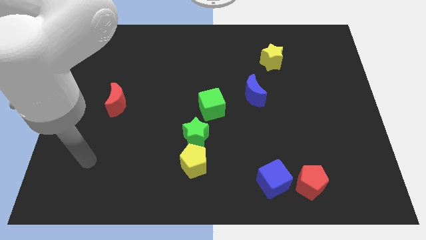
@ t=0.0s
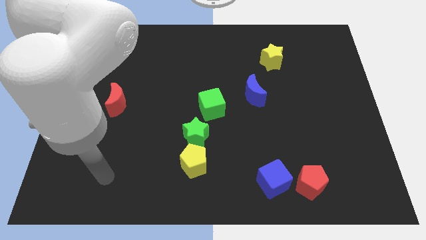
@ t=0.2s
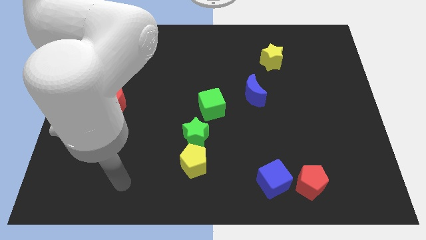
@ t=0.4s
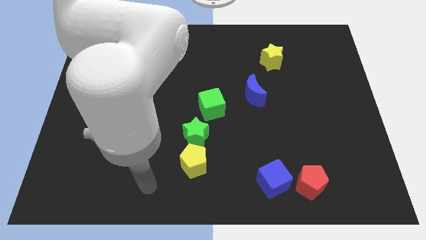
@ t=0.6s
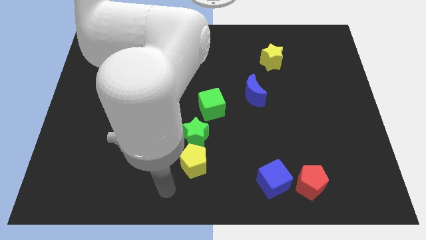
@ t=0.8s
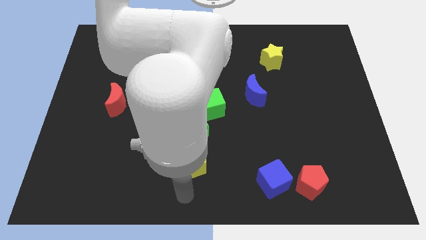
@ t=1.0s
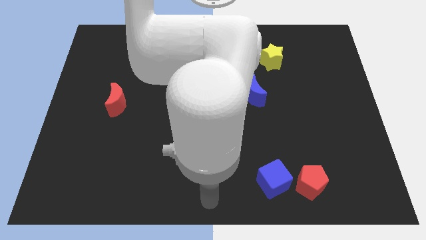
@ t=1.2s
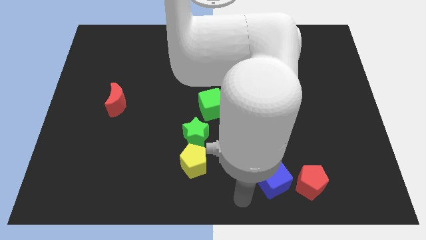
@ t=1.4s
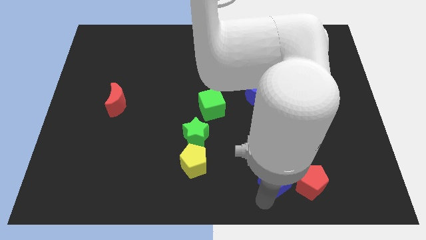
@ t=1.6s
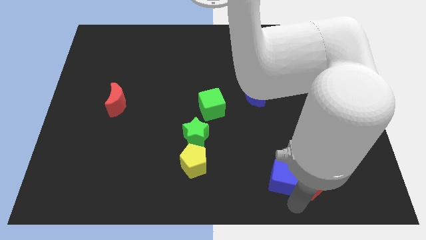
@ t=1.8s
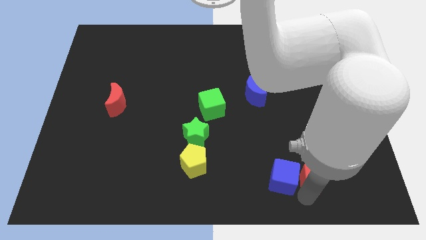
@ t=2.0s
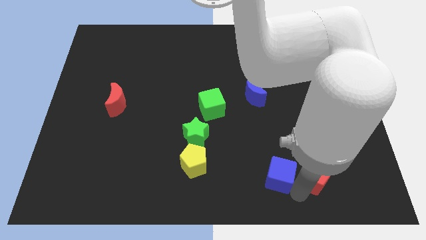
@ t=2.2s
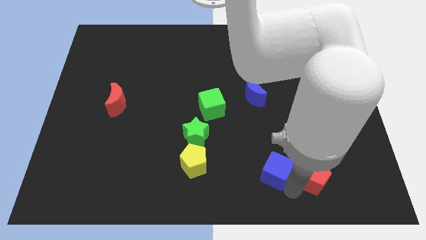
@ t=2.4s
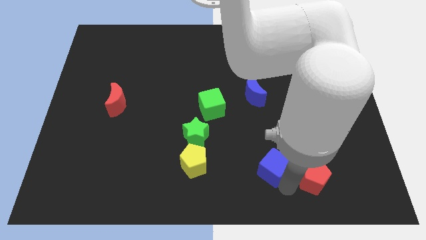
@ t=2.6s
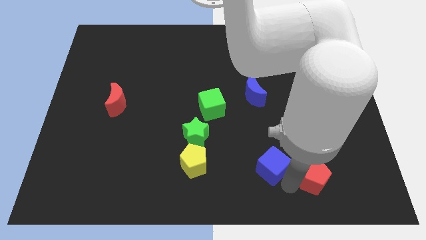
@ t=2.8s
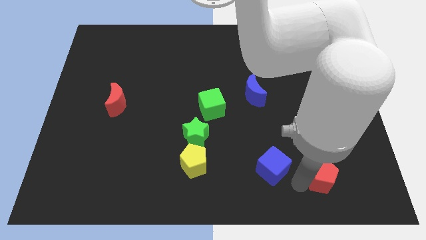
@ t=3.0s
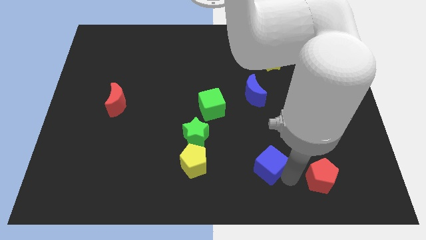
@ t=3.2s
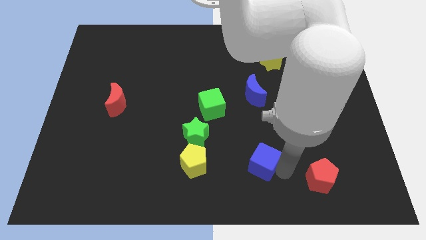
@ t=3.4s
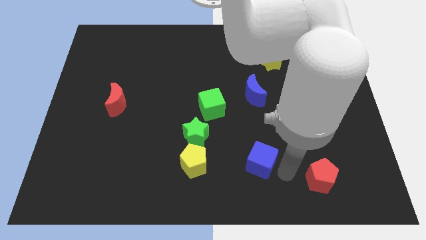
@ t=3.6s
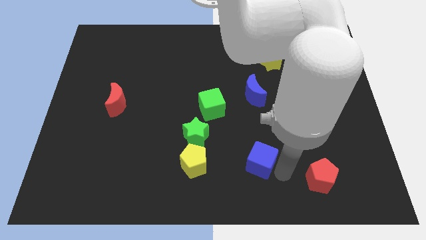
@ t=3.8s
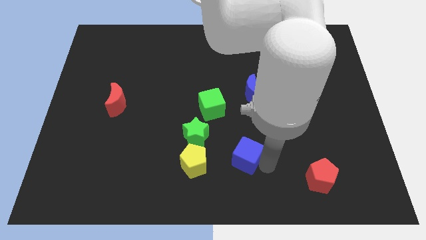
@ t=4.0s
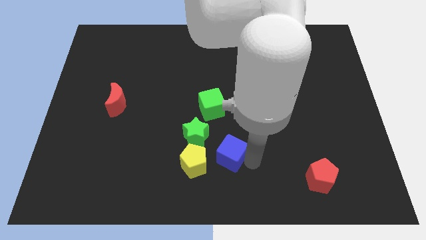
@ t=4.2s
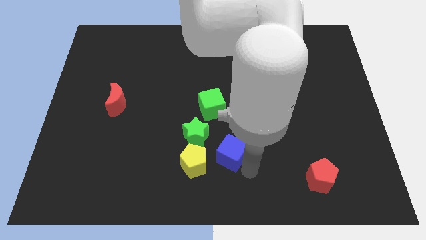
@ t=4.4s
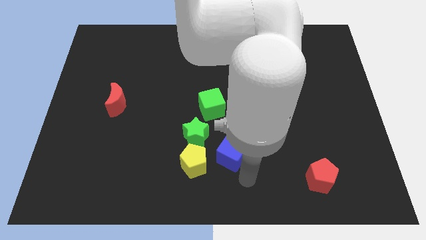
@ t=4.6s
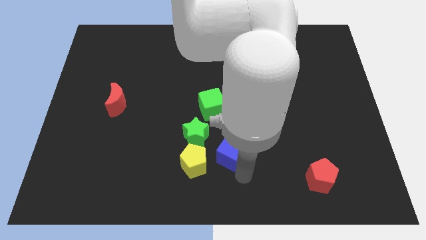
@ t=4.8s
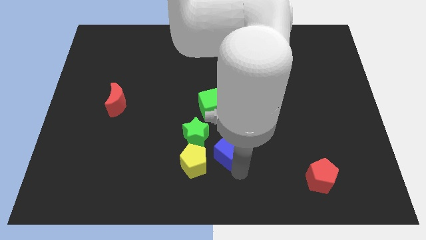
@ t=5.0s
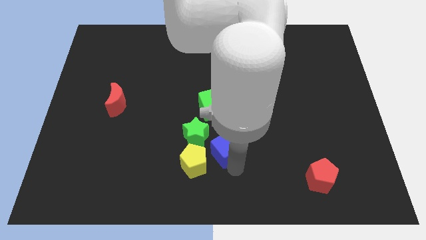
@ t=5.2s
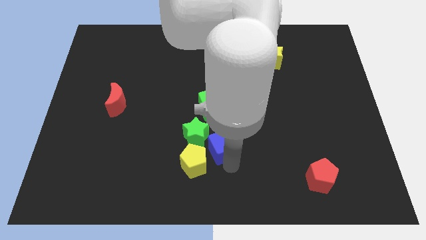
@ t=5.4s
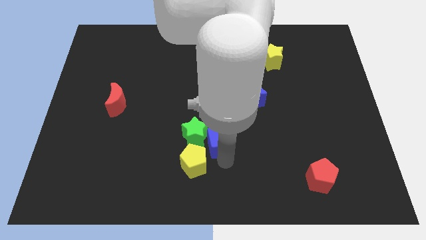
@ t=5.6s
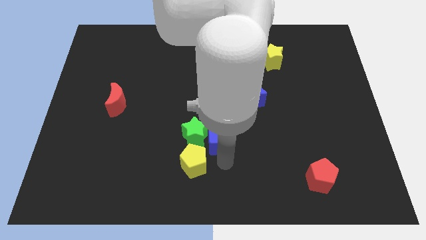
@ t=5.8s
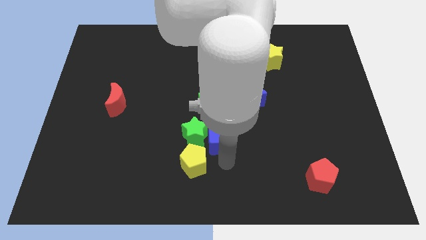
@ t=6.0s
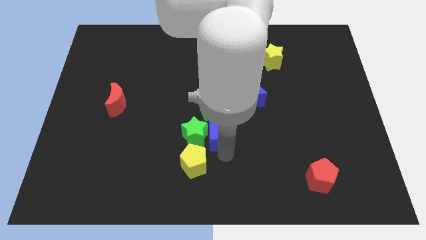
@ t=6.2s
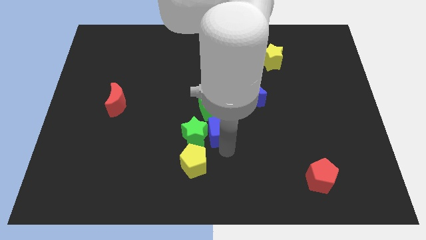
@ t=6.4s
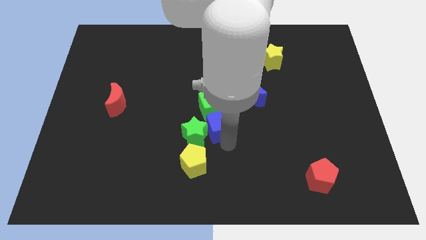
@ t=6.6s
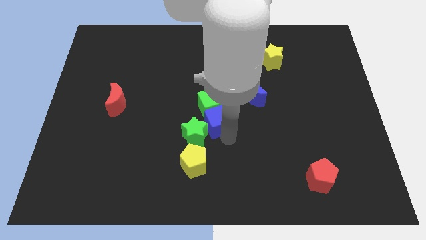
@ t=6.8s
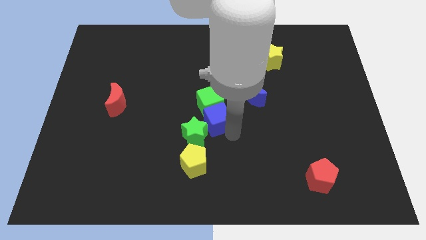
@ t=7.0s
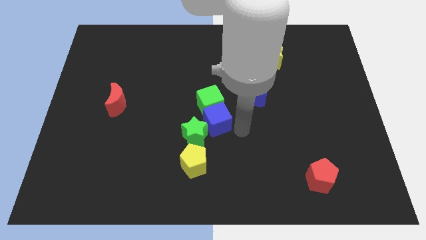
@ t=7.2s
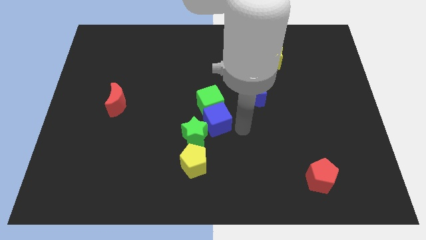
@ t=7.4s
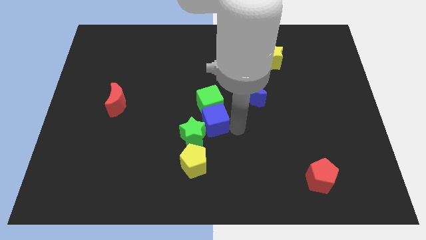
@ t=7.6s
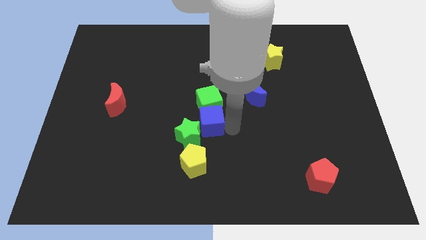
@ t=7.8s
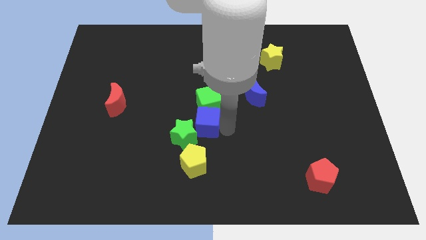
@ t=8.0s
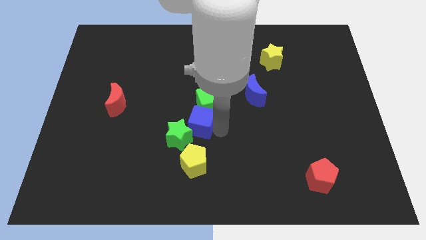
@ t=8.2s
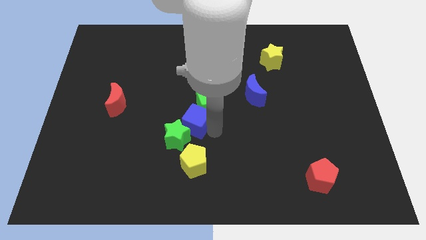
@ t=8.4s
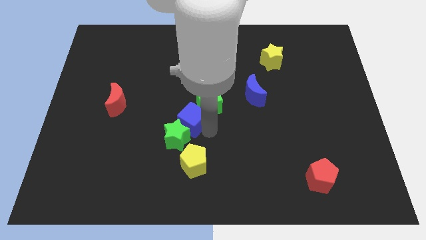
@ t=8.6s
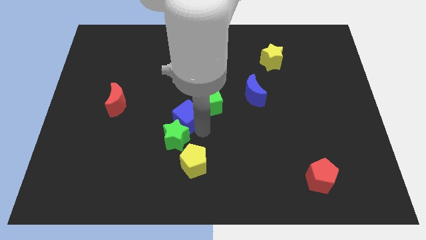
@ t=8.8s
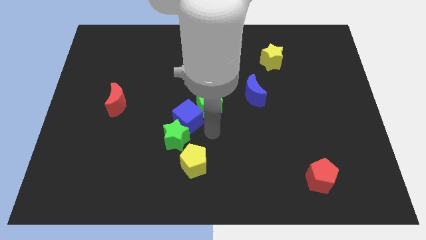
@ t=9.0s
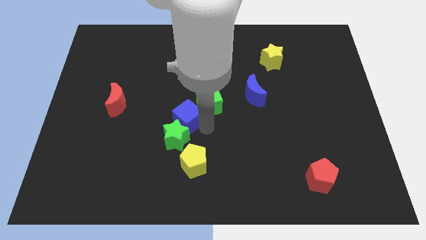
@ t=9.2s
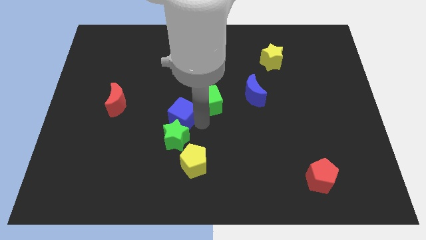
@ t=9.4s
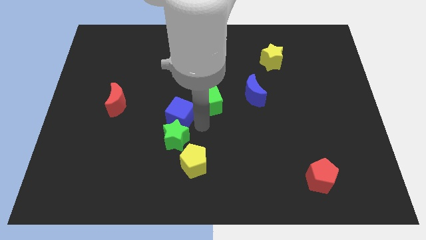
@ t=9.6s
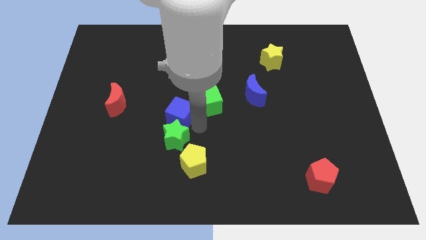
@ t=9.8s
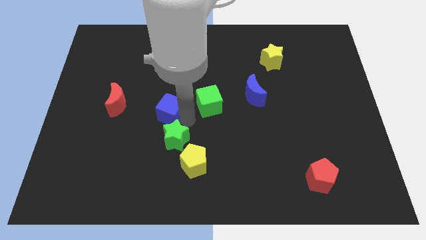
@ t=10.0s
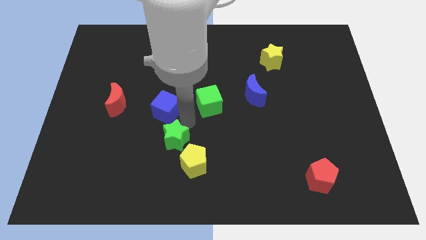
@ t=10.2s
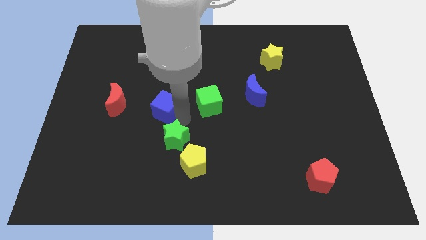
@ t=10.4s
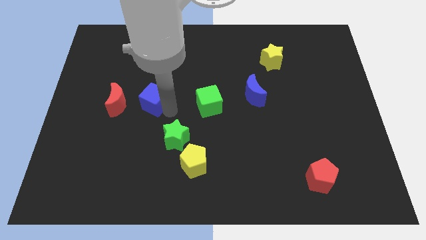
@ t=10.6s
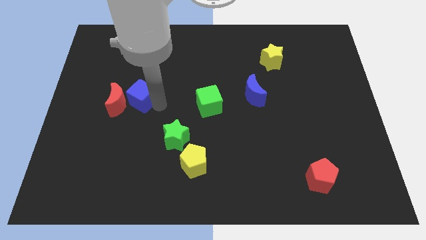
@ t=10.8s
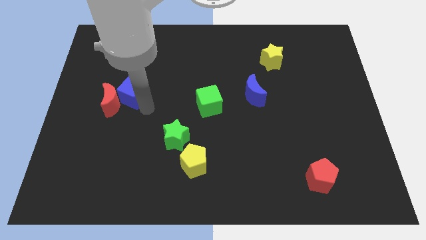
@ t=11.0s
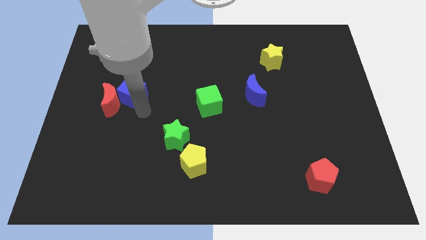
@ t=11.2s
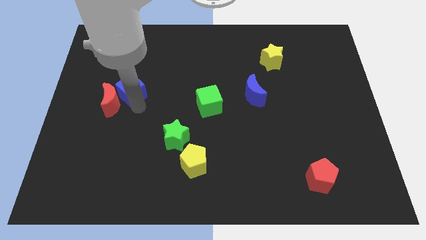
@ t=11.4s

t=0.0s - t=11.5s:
move the blue cube above the red moon
